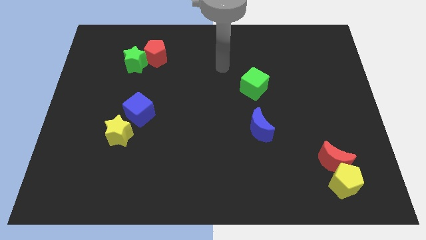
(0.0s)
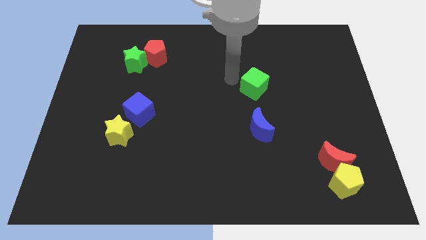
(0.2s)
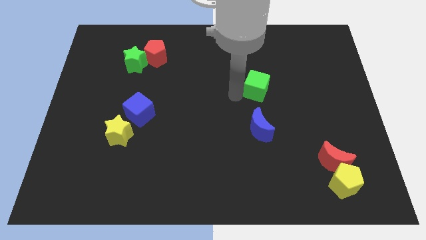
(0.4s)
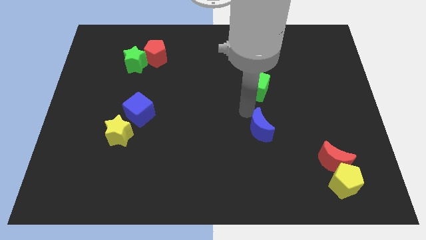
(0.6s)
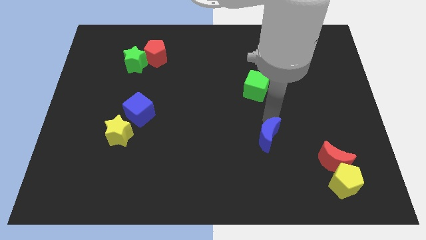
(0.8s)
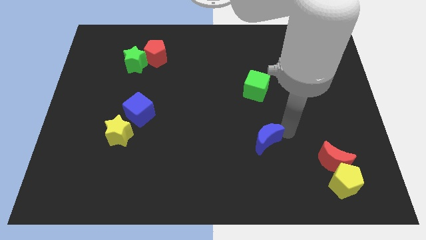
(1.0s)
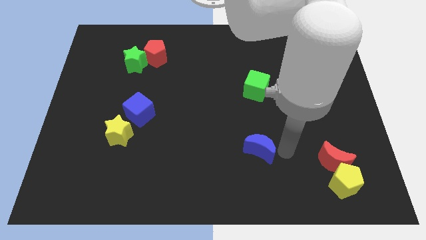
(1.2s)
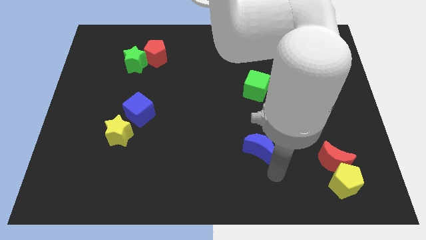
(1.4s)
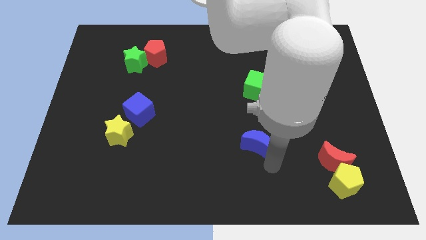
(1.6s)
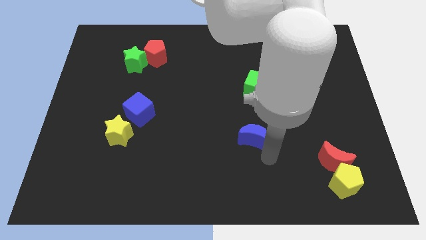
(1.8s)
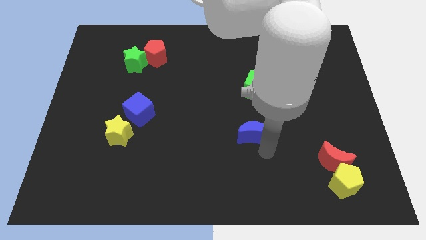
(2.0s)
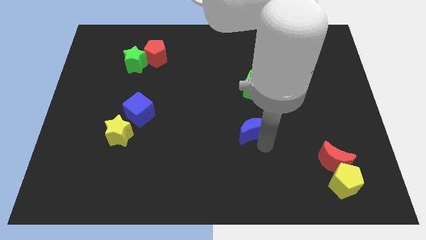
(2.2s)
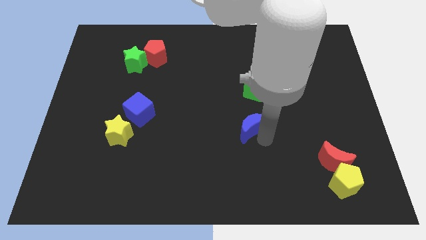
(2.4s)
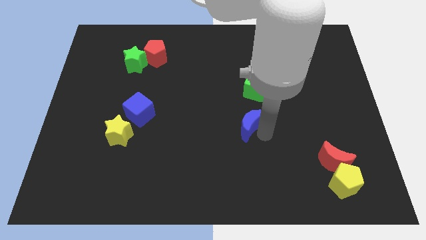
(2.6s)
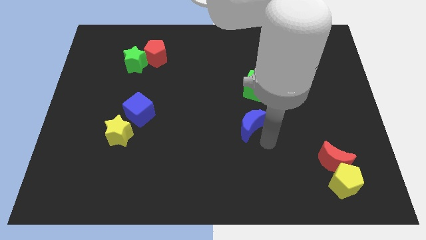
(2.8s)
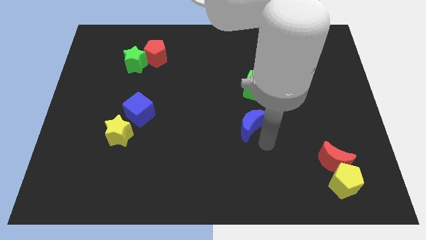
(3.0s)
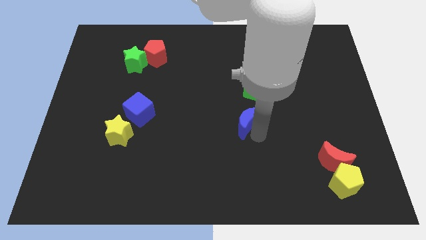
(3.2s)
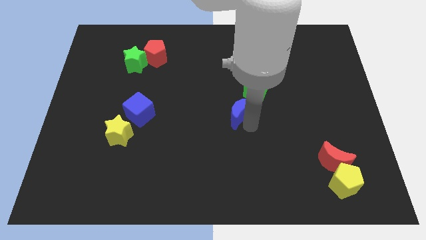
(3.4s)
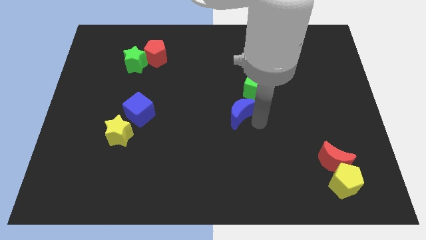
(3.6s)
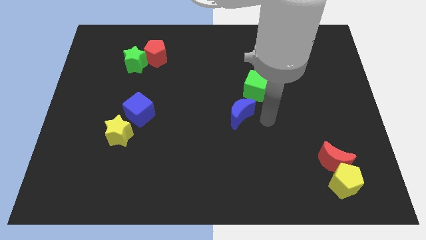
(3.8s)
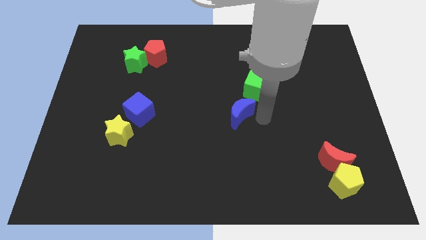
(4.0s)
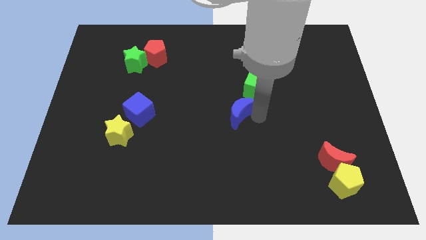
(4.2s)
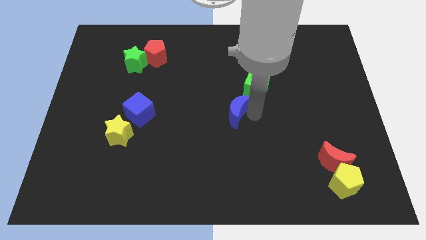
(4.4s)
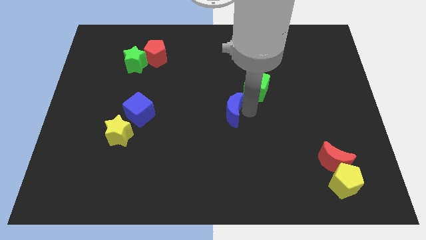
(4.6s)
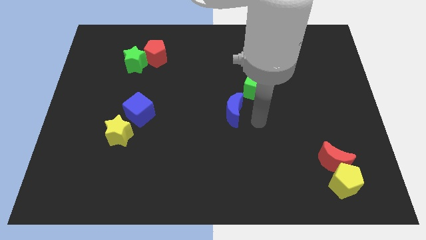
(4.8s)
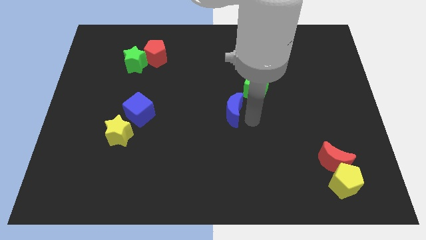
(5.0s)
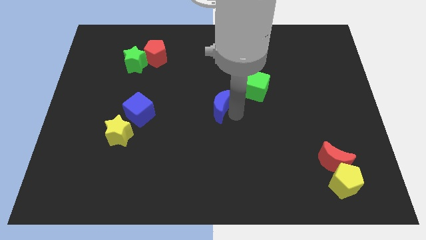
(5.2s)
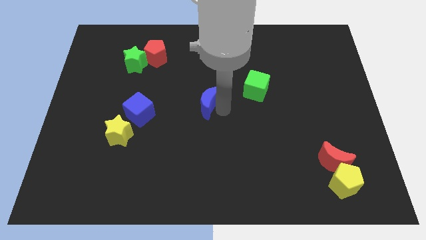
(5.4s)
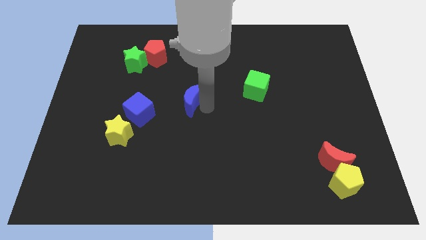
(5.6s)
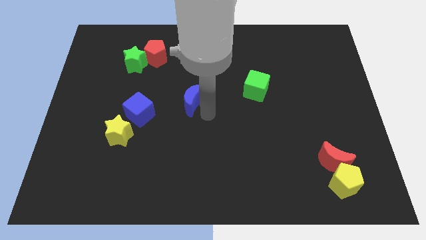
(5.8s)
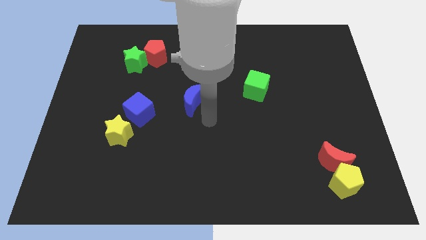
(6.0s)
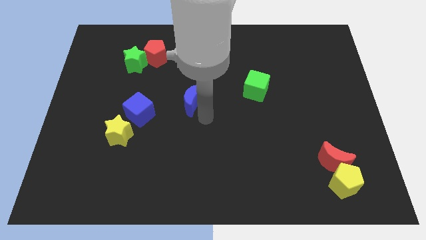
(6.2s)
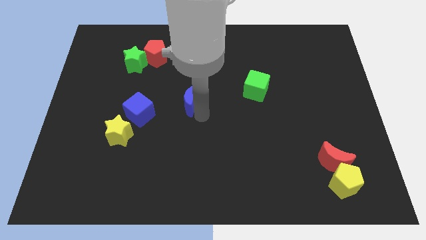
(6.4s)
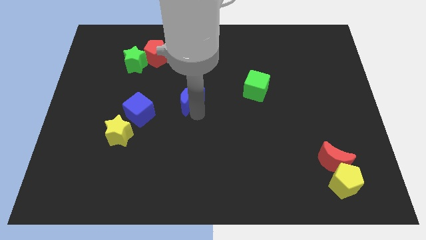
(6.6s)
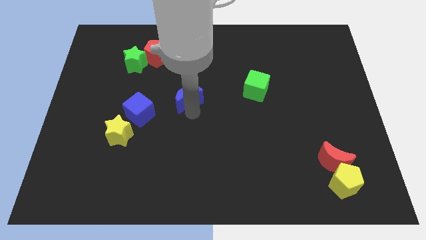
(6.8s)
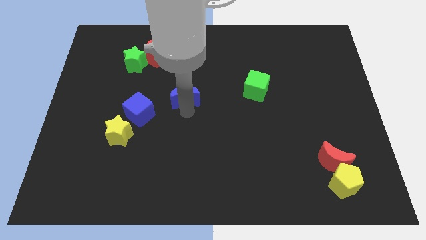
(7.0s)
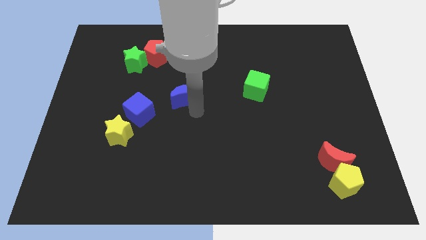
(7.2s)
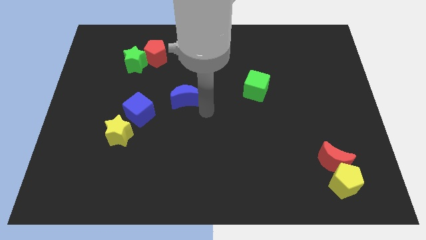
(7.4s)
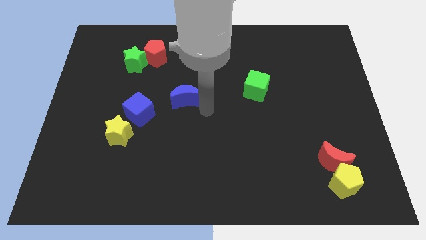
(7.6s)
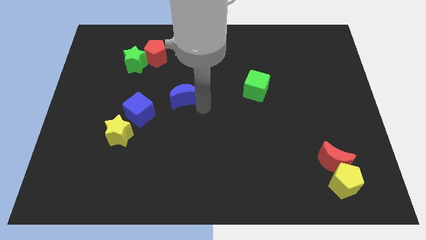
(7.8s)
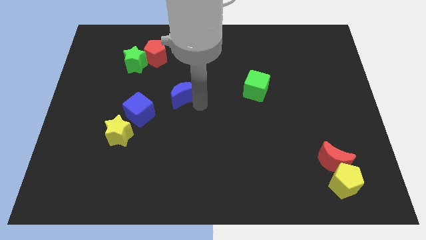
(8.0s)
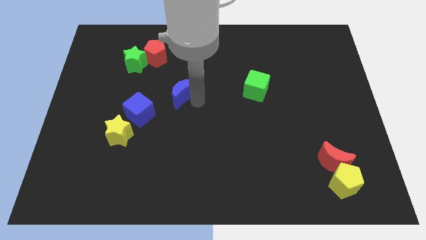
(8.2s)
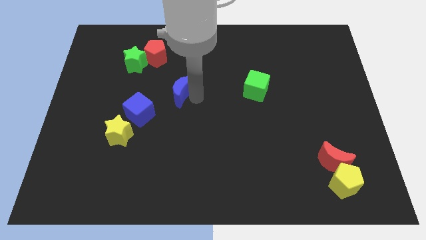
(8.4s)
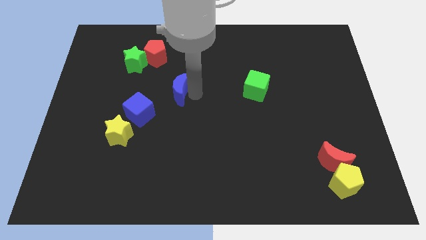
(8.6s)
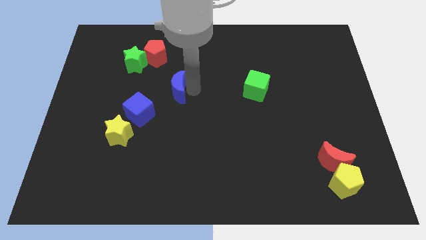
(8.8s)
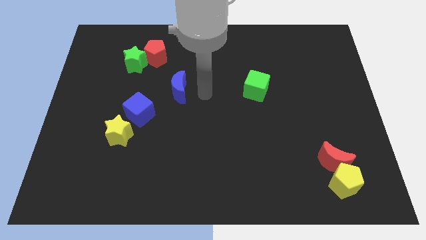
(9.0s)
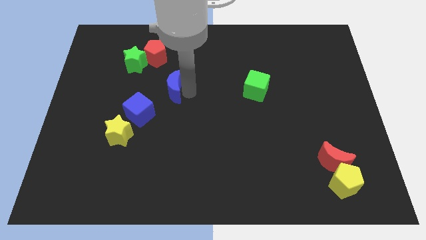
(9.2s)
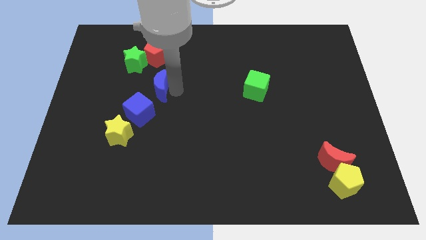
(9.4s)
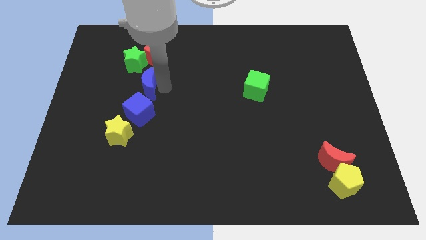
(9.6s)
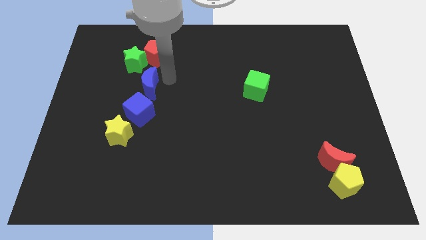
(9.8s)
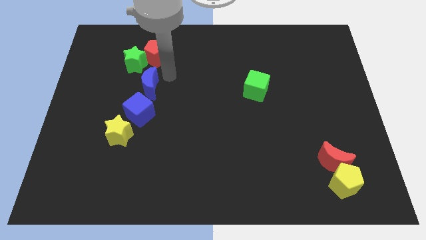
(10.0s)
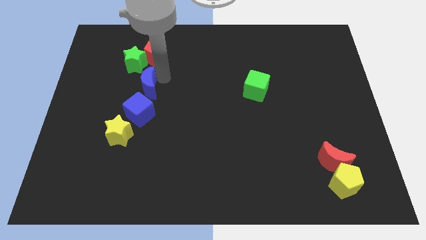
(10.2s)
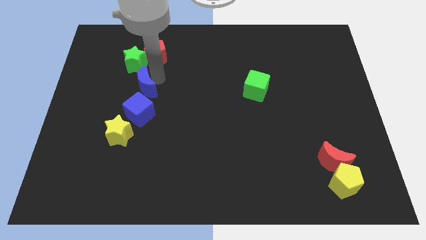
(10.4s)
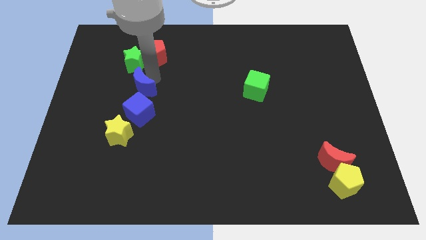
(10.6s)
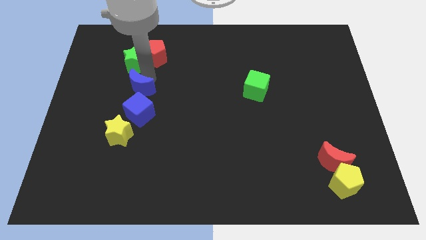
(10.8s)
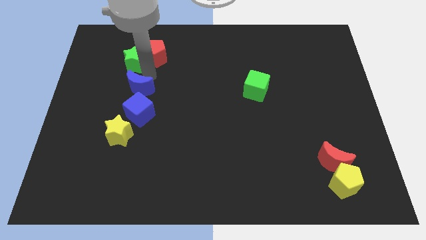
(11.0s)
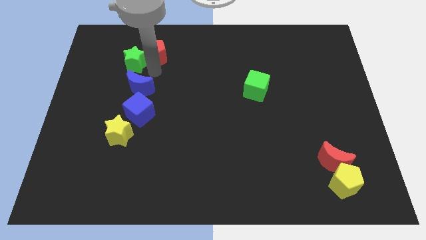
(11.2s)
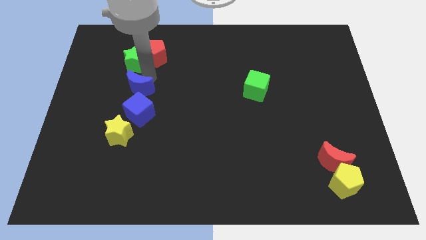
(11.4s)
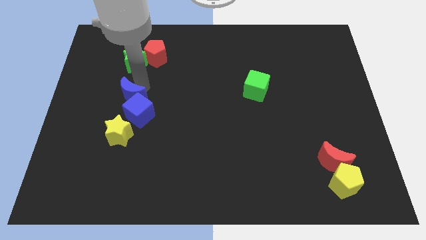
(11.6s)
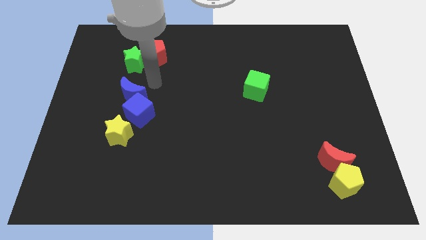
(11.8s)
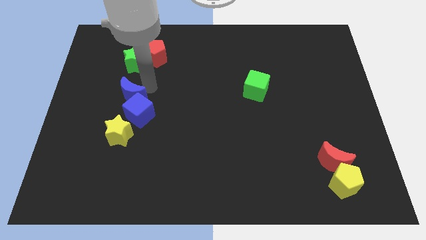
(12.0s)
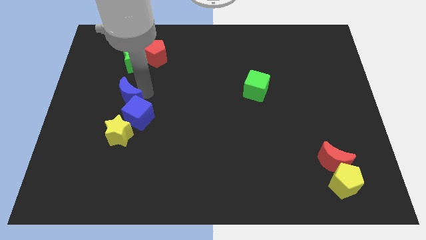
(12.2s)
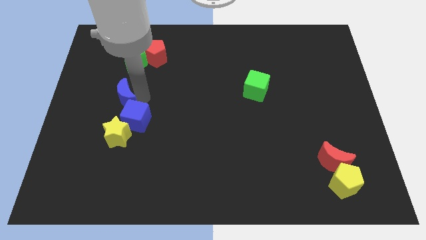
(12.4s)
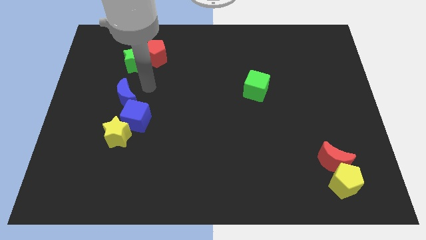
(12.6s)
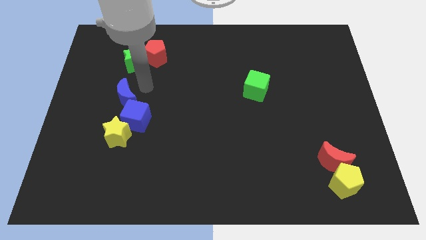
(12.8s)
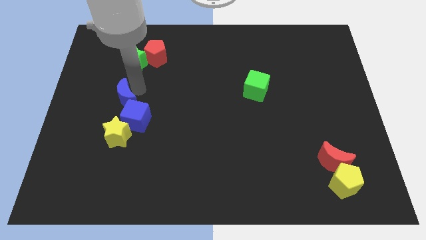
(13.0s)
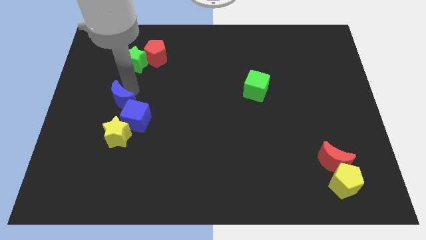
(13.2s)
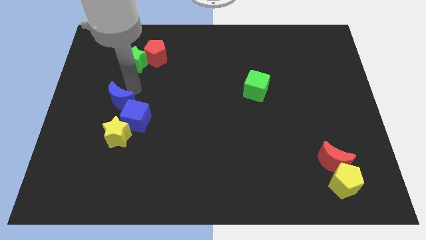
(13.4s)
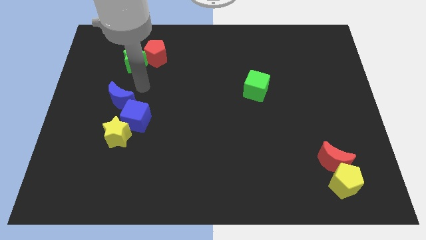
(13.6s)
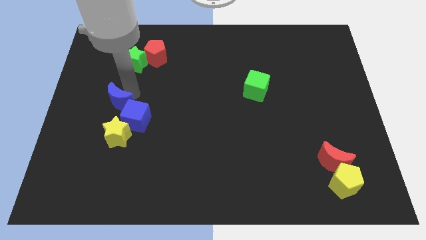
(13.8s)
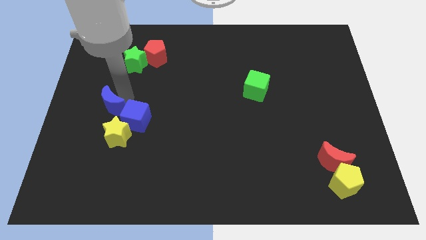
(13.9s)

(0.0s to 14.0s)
slide the blue moon to the top left side of the yellow star
